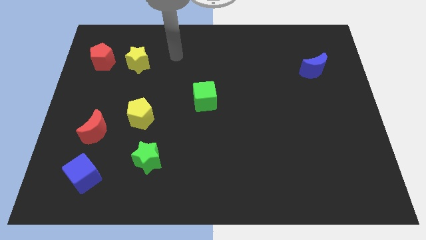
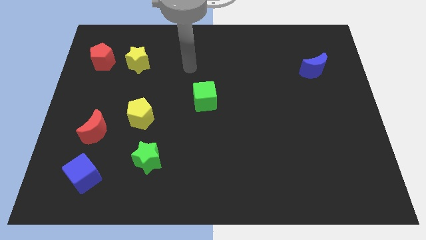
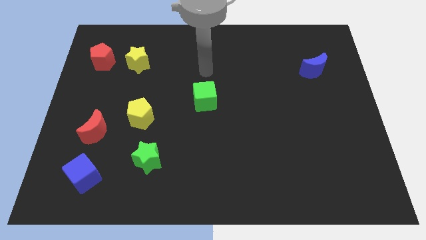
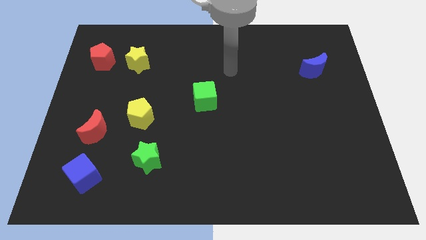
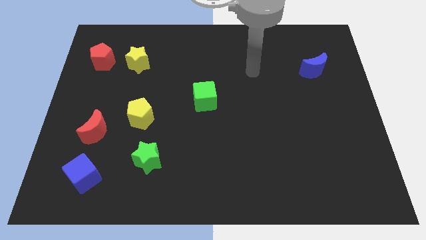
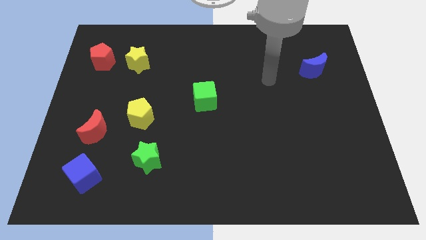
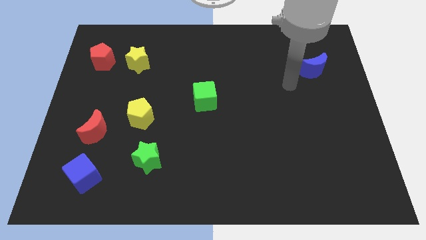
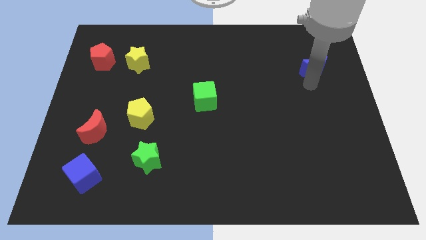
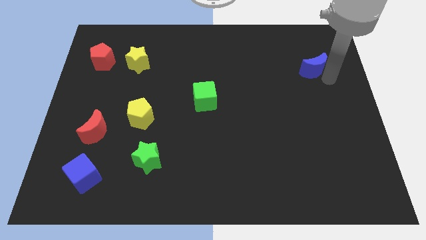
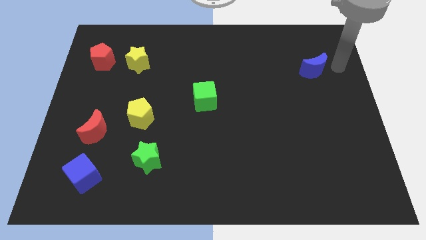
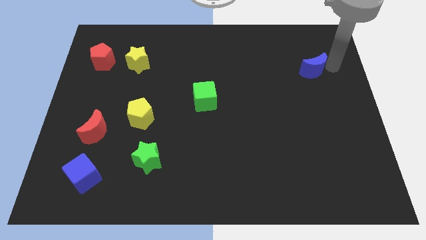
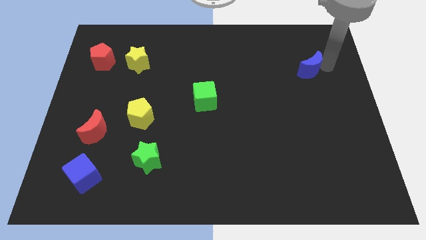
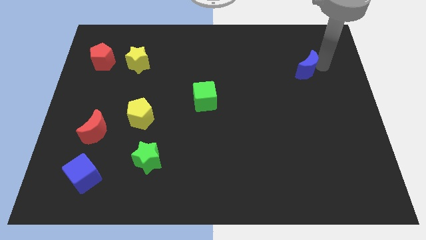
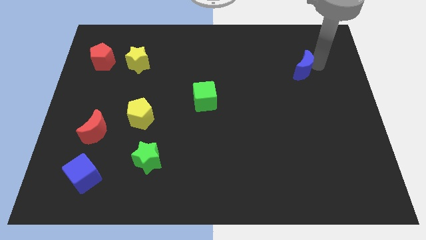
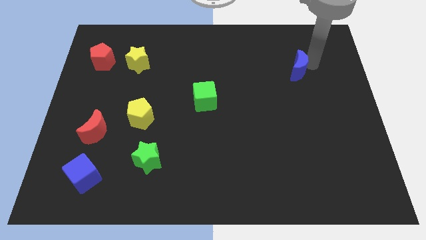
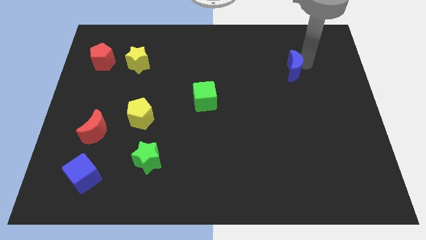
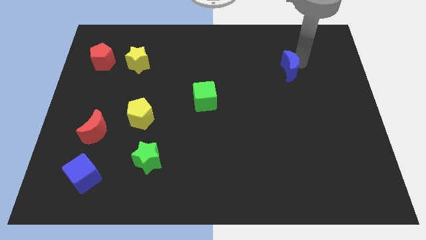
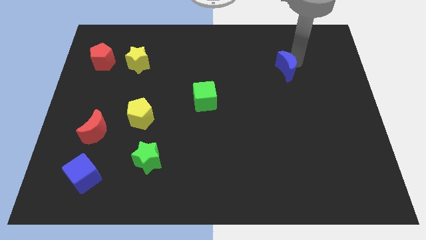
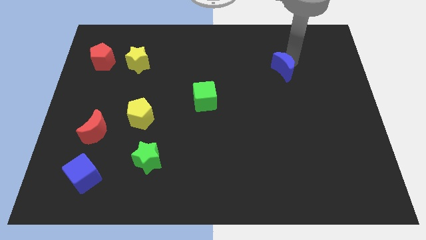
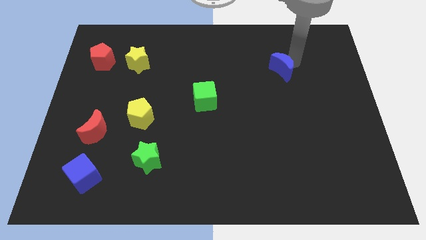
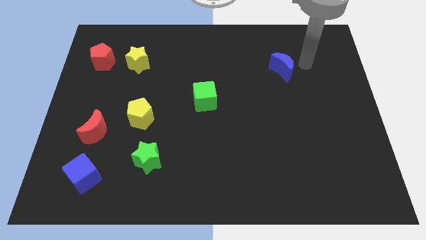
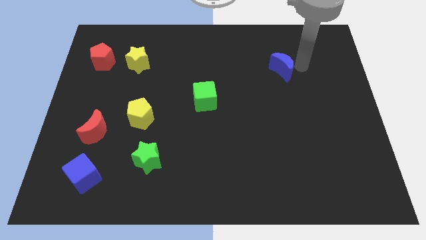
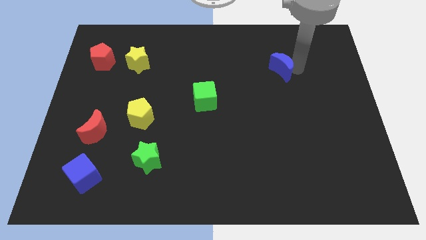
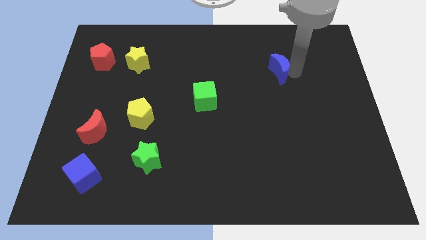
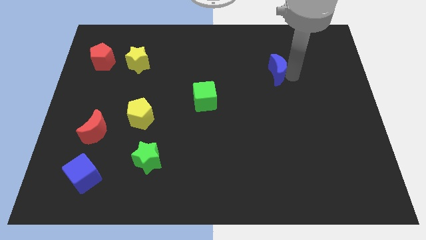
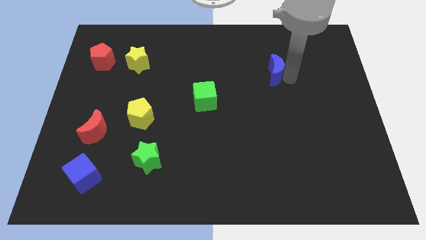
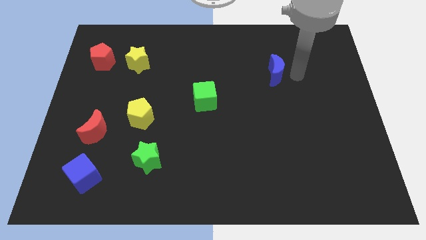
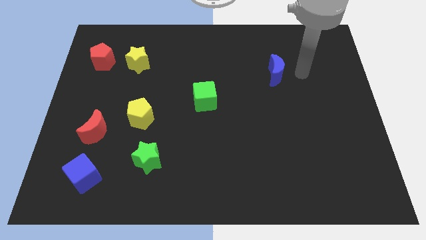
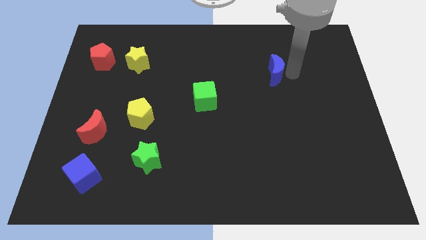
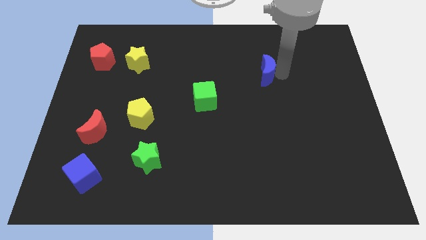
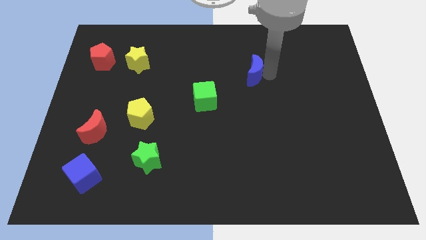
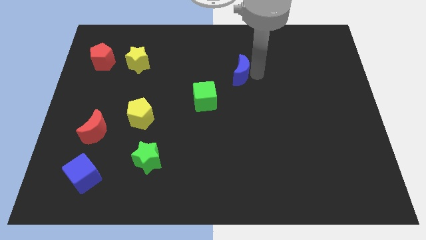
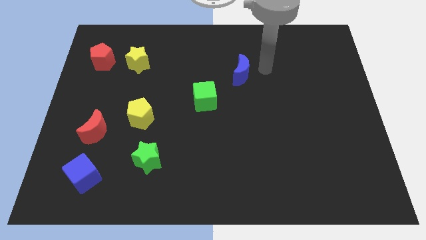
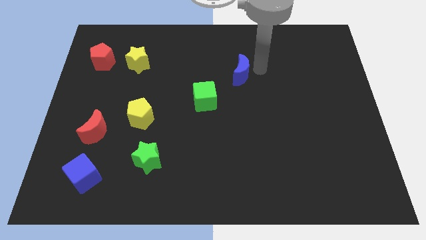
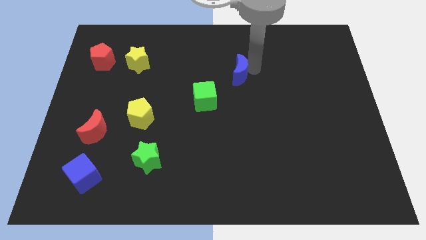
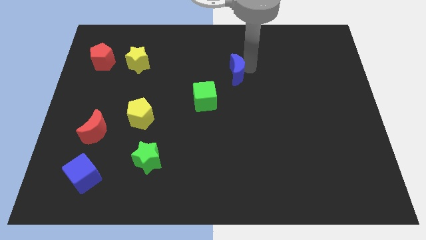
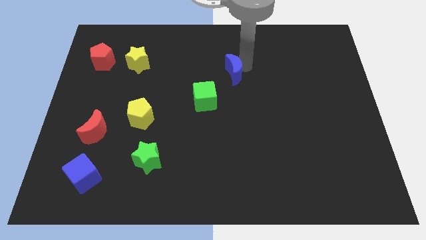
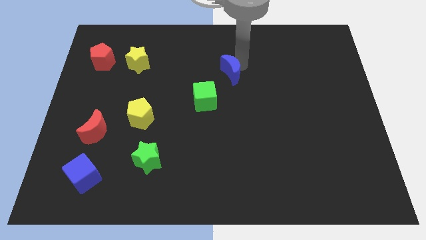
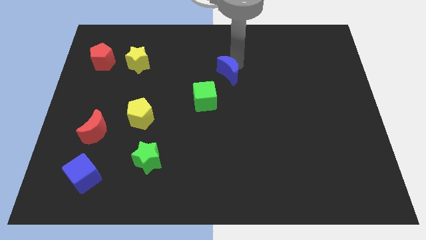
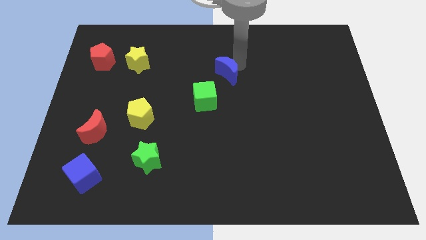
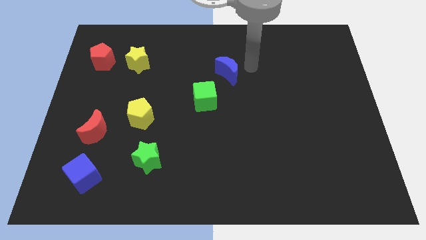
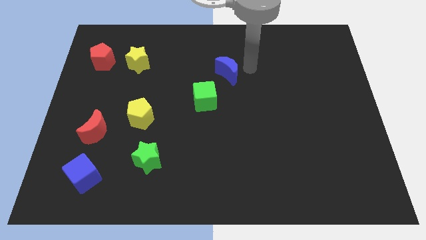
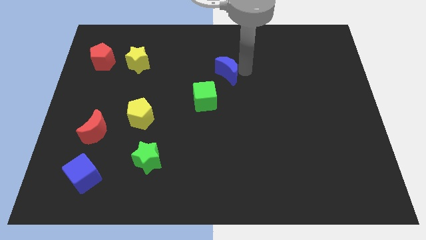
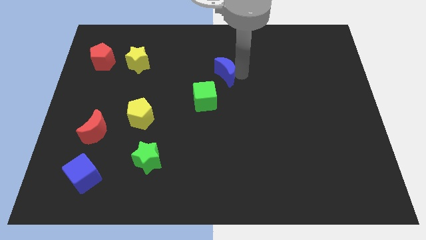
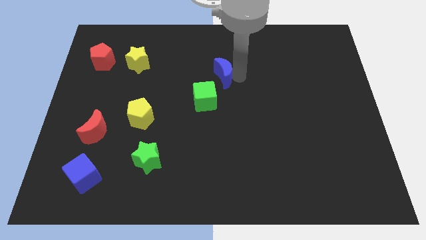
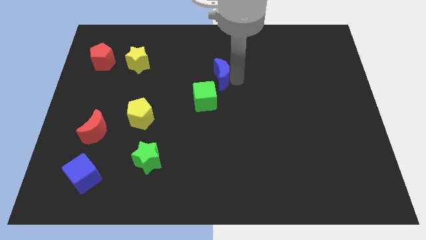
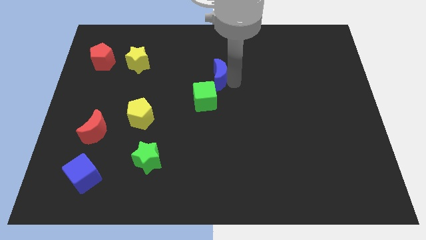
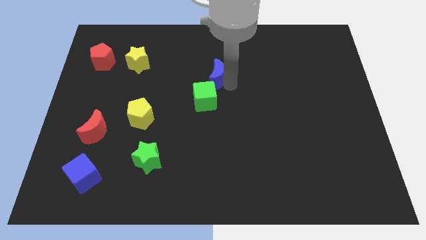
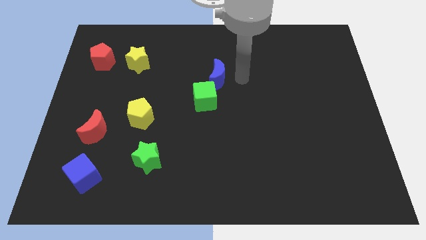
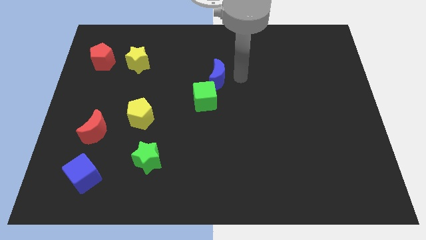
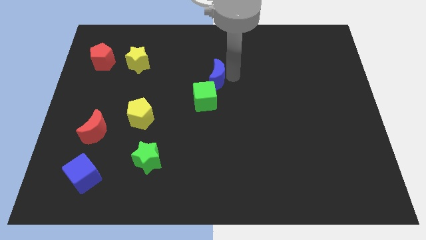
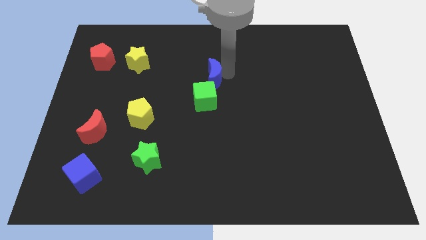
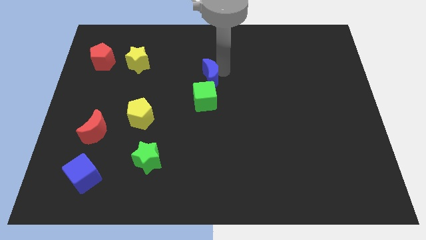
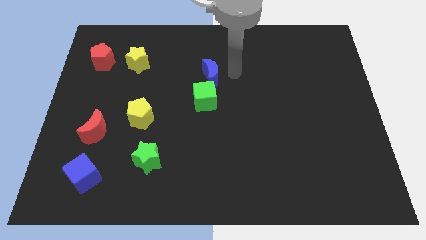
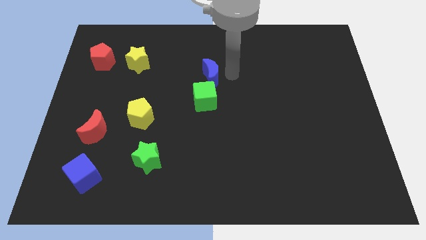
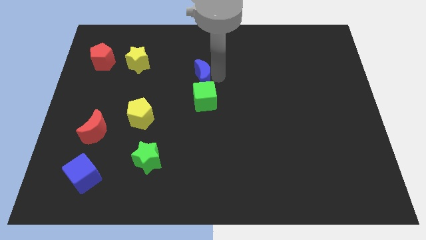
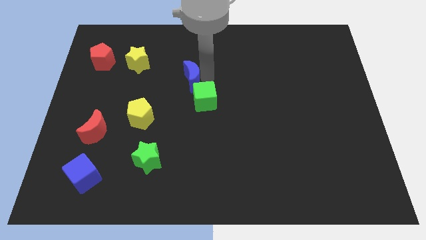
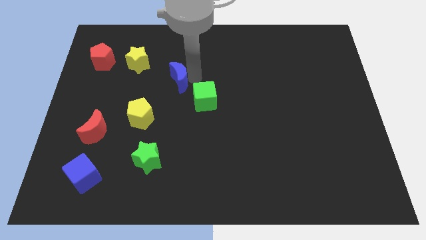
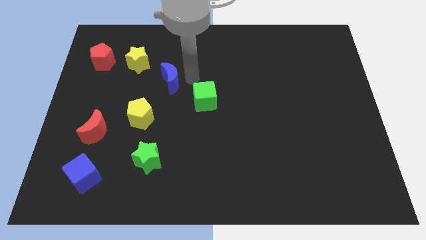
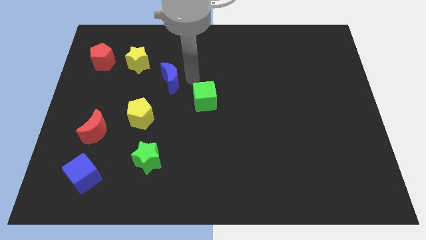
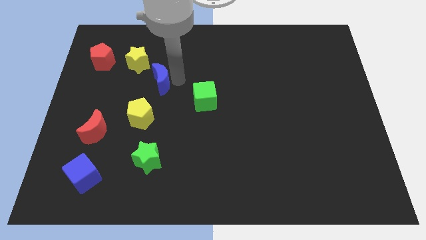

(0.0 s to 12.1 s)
push the blue moon to the top of the yellow pentagon

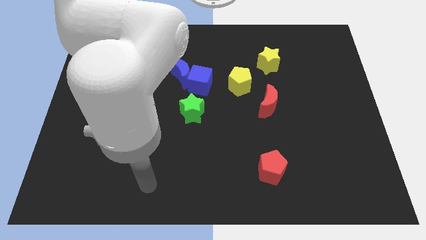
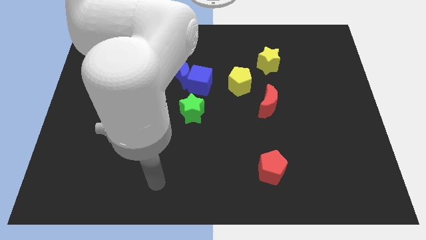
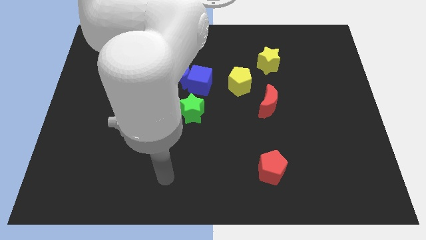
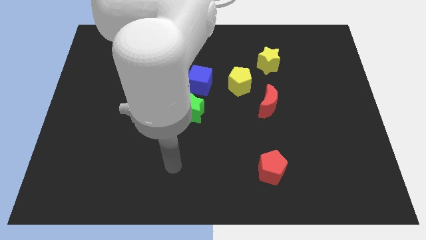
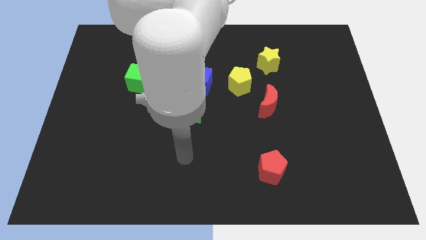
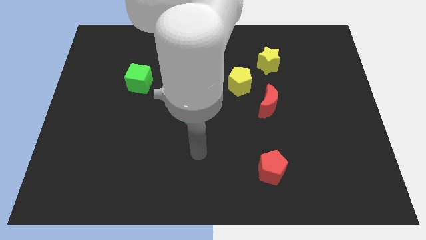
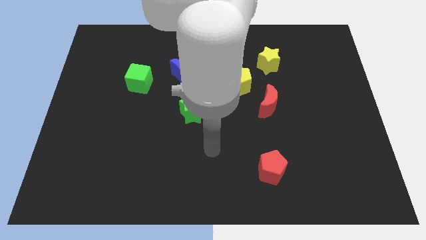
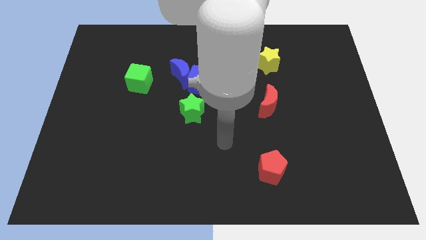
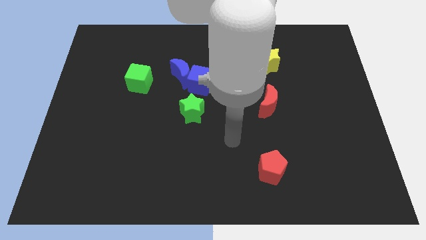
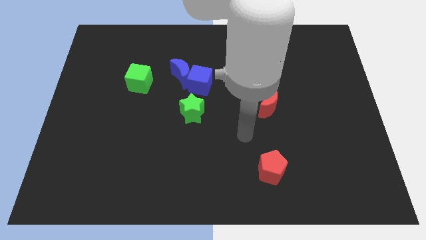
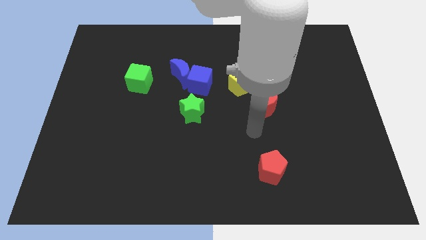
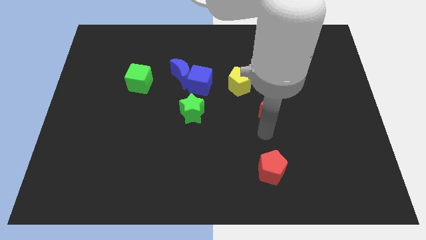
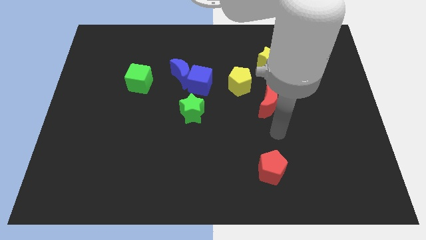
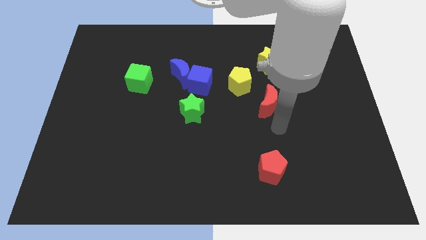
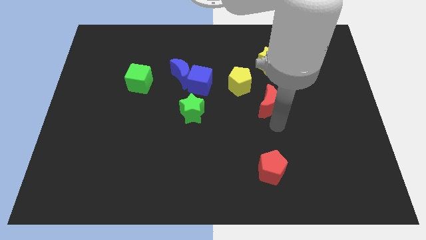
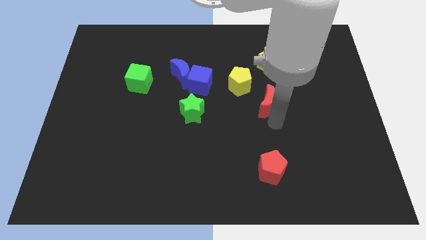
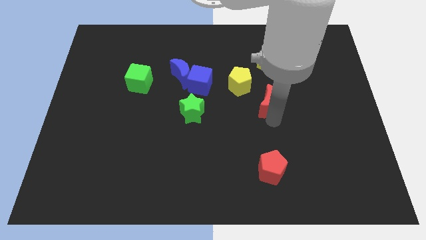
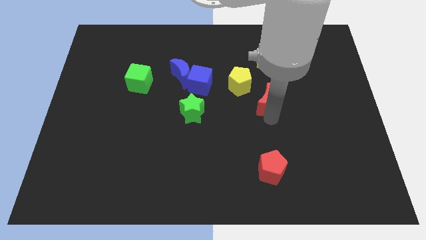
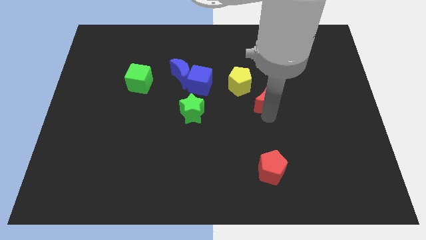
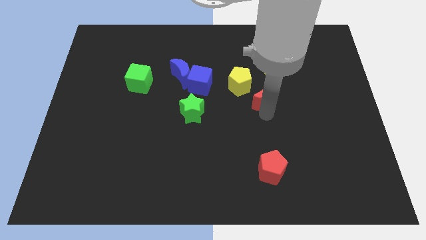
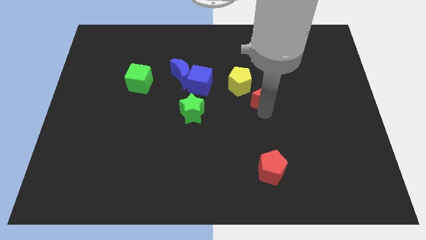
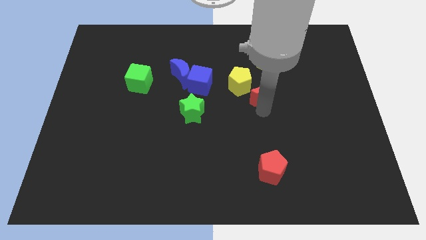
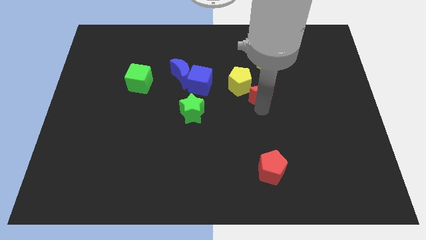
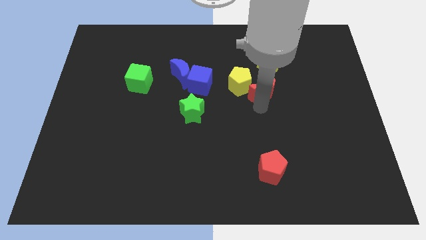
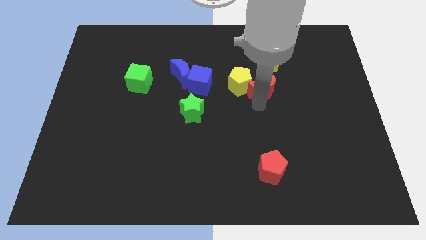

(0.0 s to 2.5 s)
push the red moon right of the blue cube
